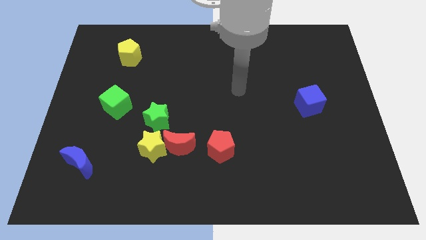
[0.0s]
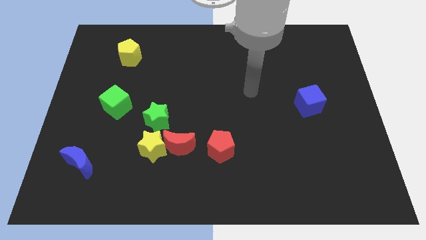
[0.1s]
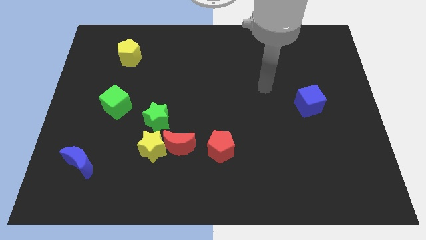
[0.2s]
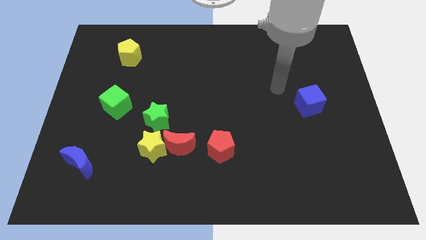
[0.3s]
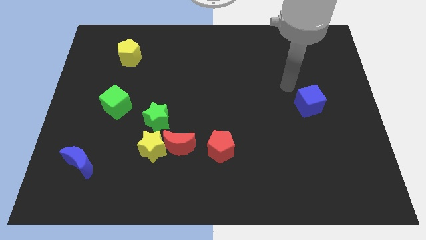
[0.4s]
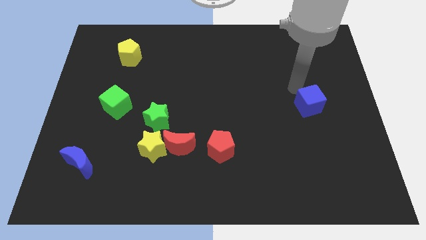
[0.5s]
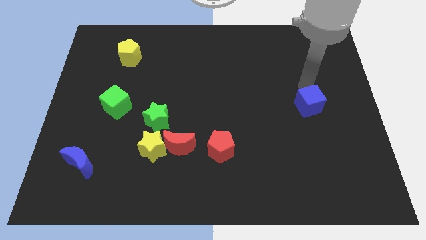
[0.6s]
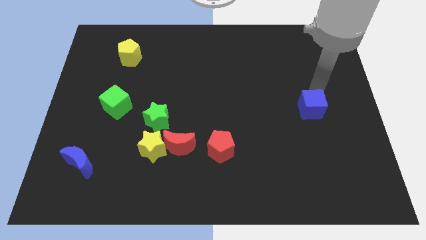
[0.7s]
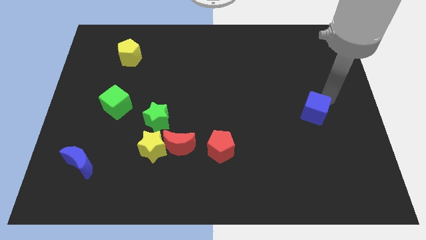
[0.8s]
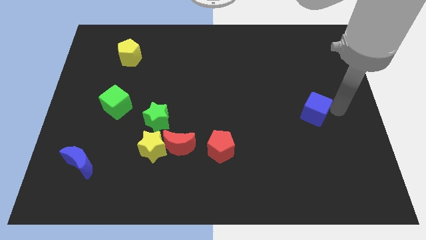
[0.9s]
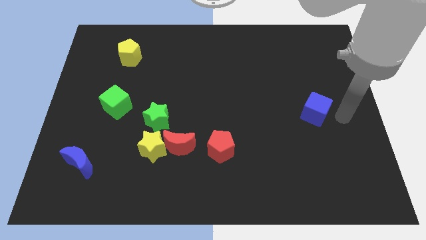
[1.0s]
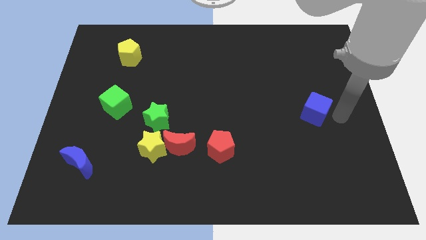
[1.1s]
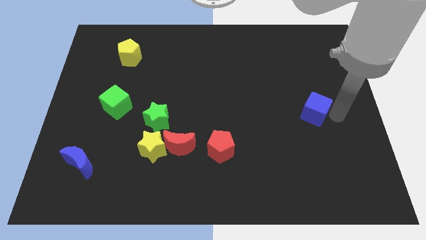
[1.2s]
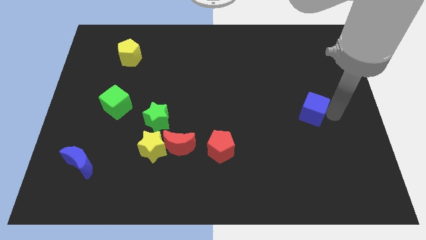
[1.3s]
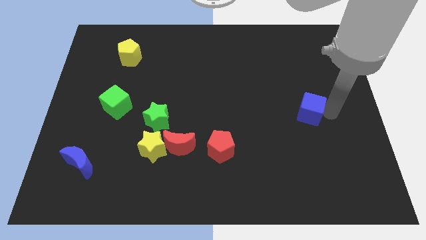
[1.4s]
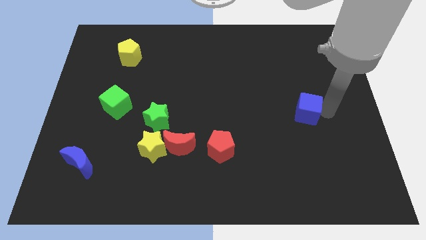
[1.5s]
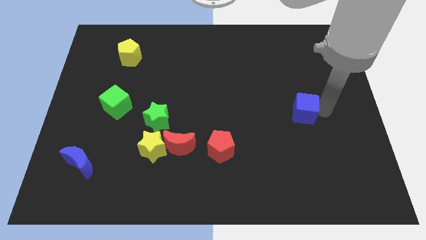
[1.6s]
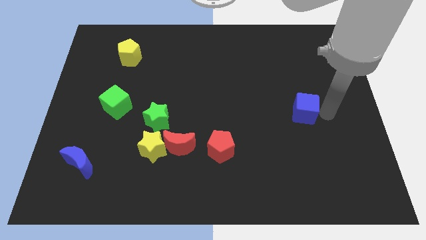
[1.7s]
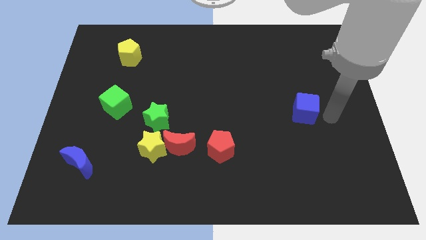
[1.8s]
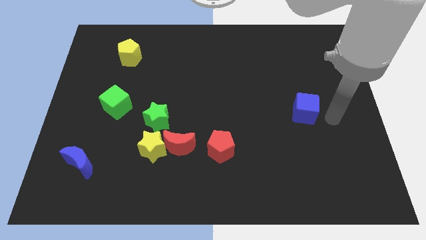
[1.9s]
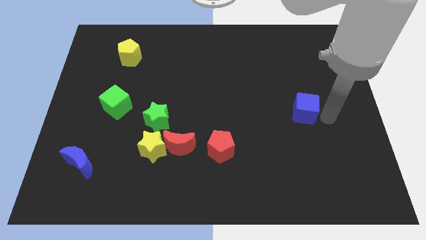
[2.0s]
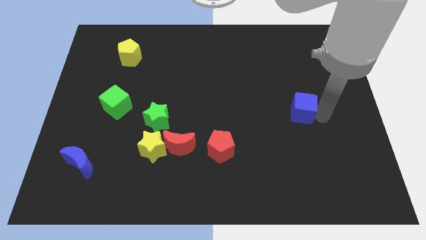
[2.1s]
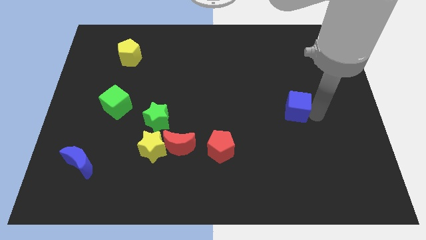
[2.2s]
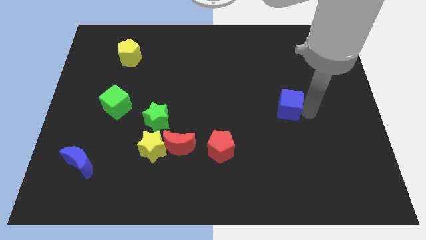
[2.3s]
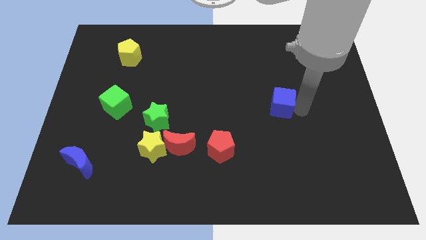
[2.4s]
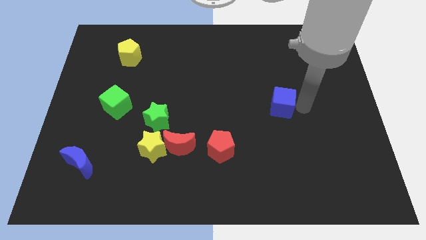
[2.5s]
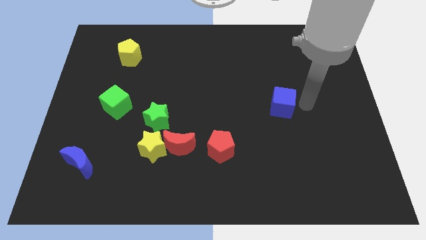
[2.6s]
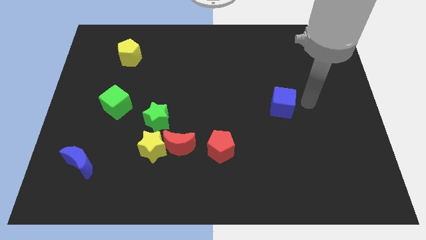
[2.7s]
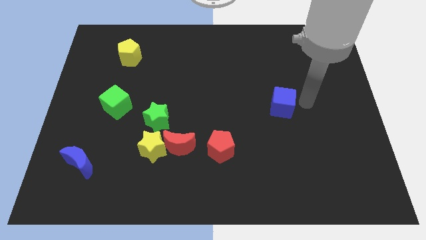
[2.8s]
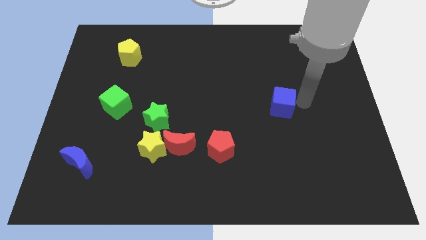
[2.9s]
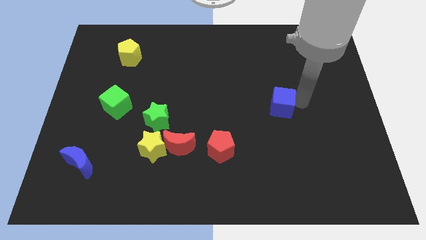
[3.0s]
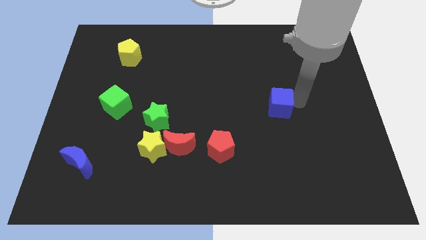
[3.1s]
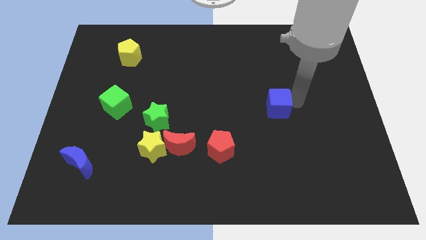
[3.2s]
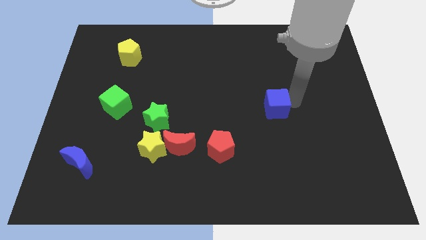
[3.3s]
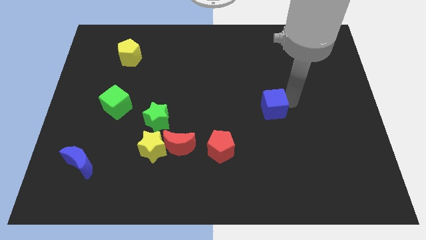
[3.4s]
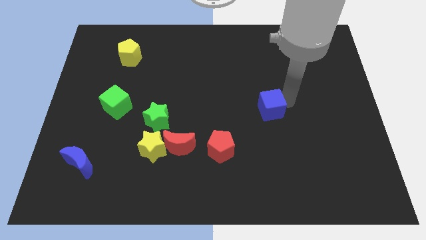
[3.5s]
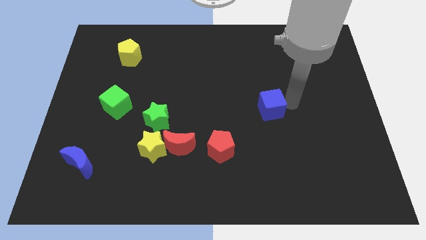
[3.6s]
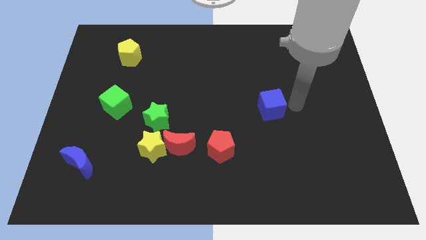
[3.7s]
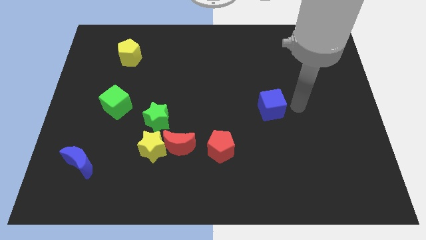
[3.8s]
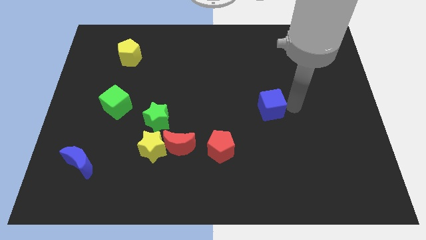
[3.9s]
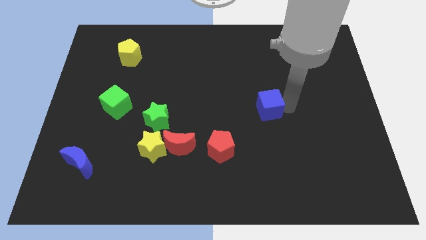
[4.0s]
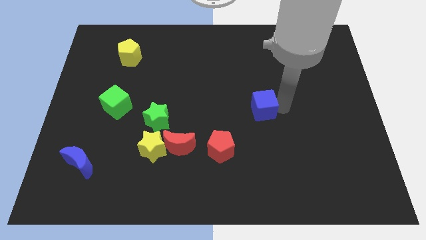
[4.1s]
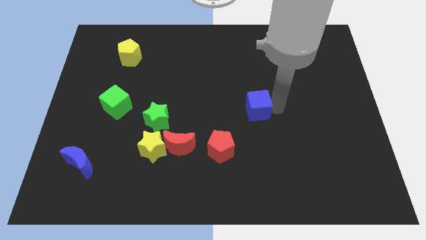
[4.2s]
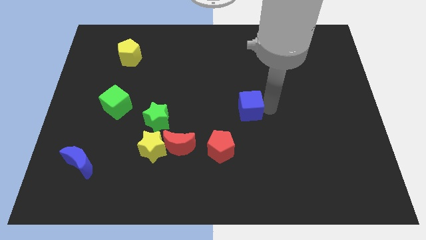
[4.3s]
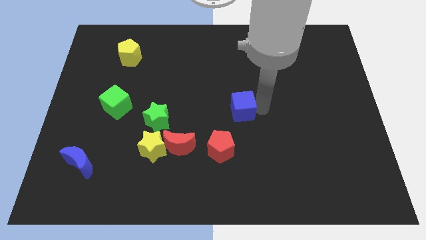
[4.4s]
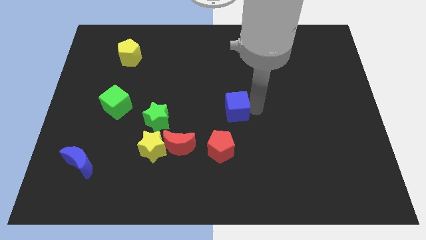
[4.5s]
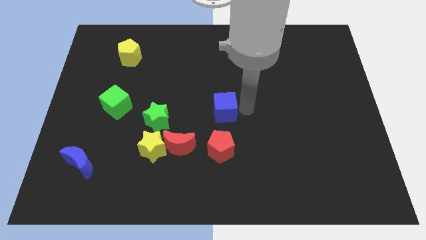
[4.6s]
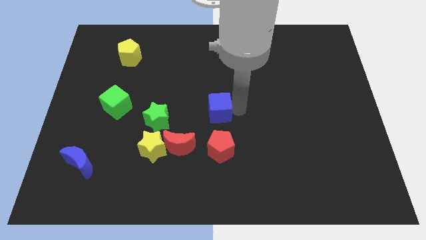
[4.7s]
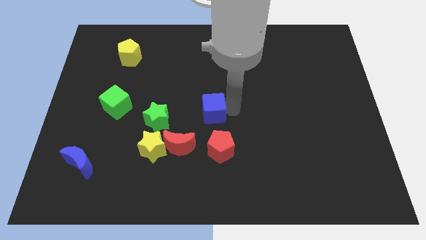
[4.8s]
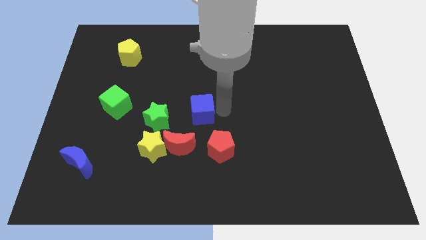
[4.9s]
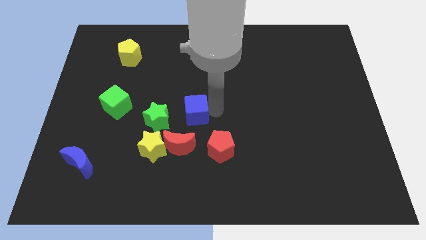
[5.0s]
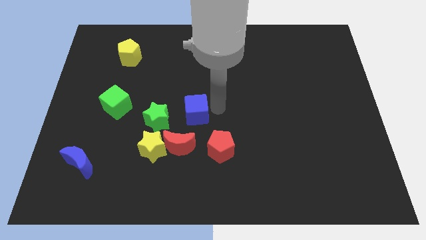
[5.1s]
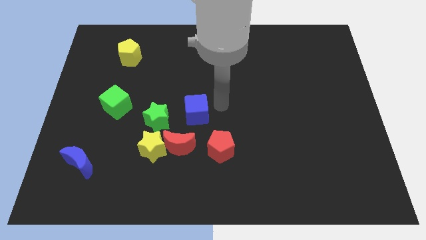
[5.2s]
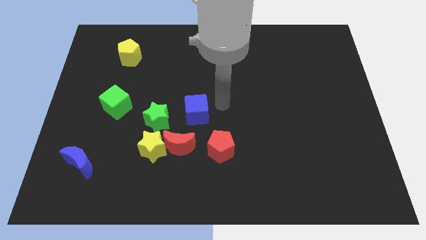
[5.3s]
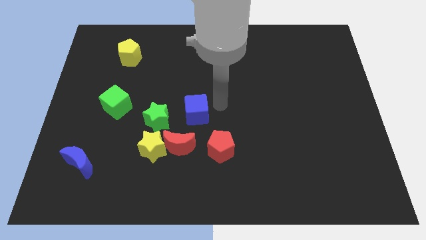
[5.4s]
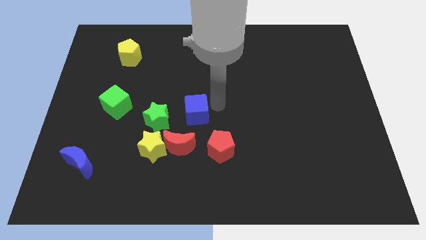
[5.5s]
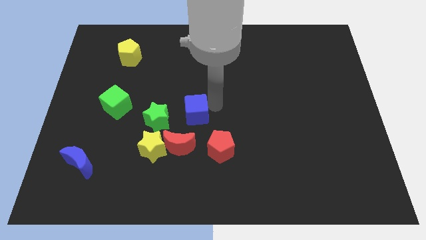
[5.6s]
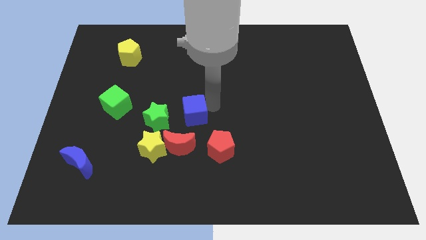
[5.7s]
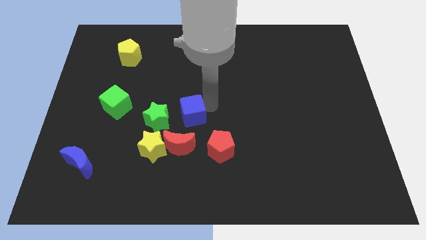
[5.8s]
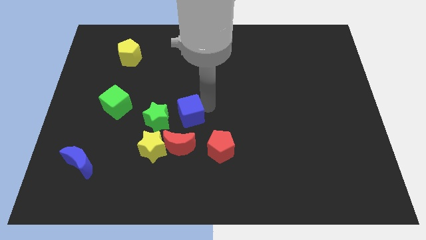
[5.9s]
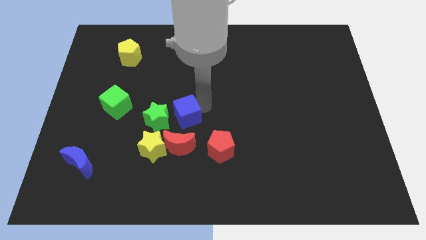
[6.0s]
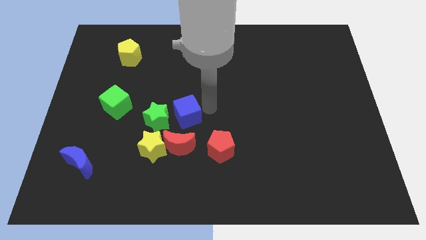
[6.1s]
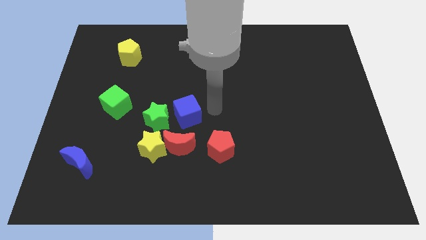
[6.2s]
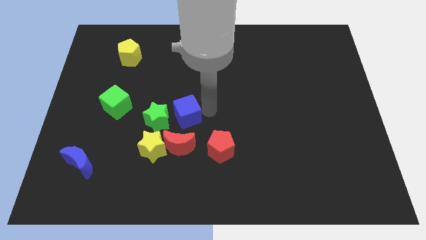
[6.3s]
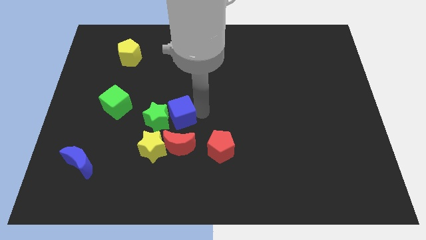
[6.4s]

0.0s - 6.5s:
move the blue cube next to the green star
